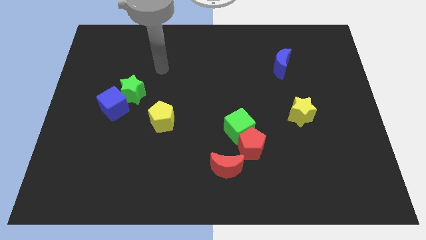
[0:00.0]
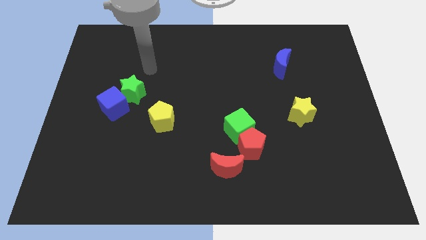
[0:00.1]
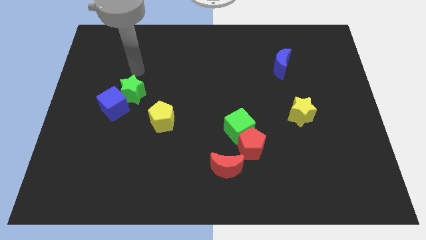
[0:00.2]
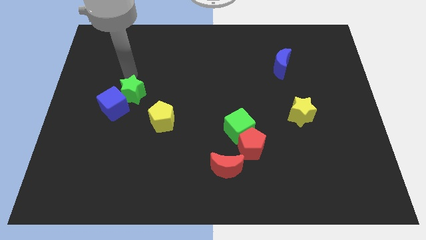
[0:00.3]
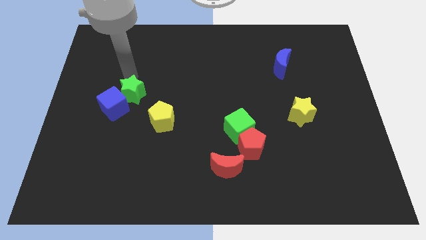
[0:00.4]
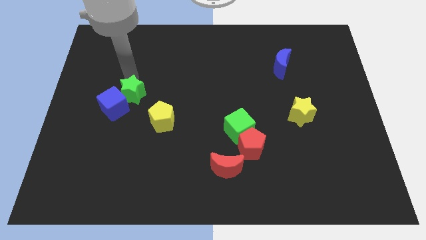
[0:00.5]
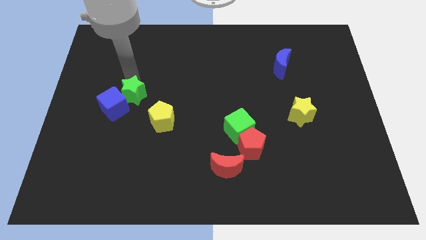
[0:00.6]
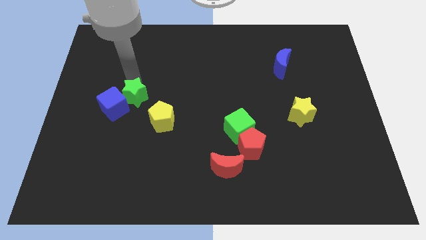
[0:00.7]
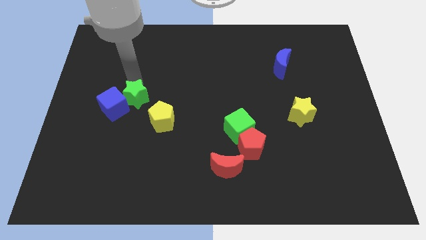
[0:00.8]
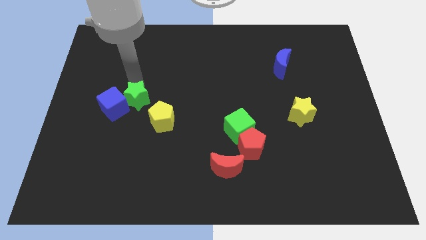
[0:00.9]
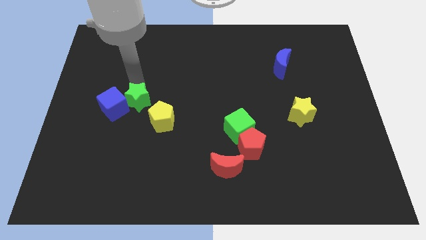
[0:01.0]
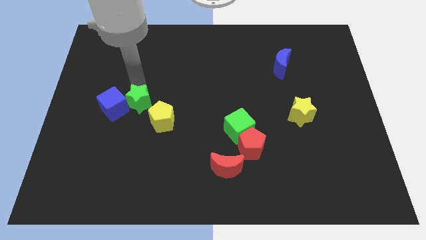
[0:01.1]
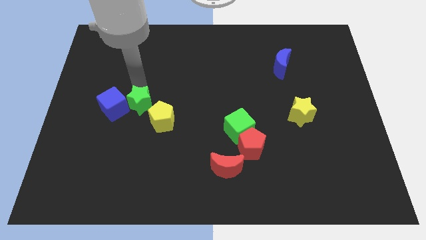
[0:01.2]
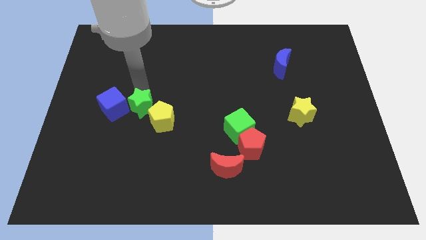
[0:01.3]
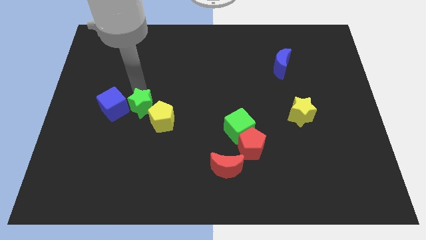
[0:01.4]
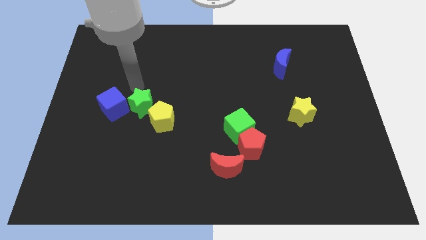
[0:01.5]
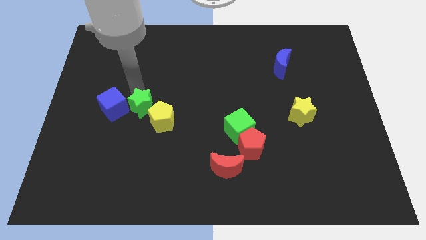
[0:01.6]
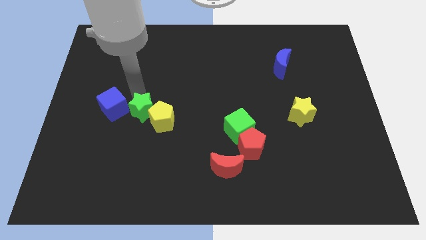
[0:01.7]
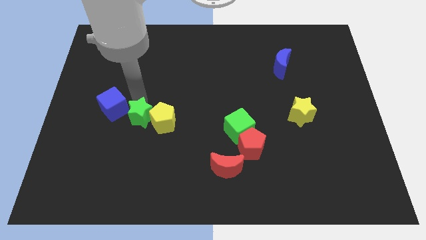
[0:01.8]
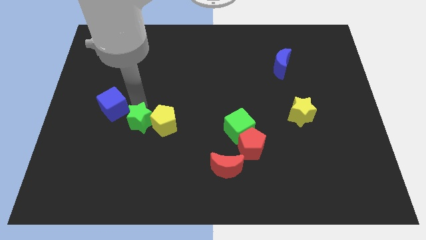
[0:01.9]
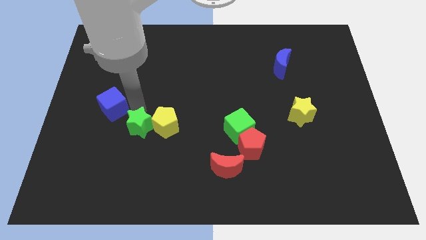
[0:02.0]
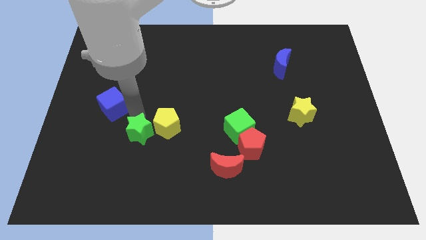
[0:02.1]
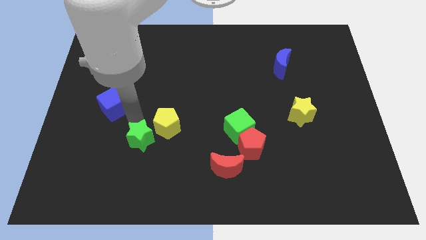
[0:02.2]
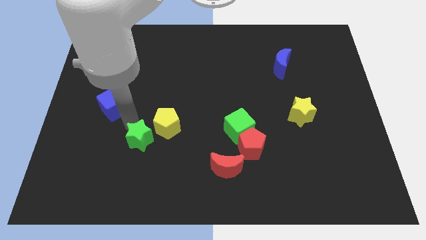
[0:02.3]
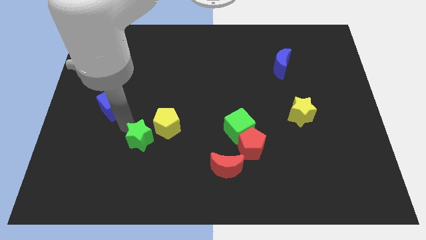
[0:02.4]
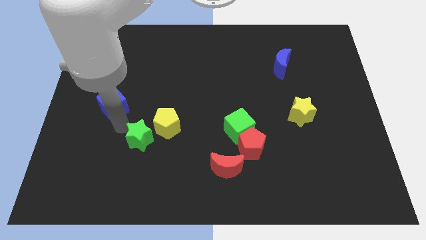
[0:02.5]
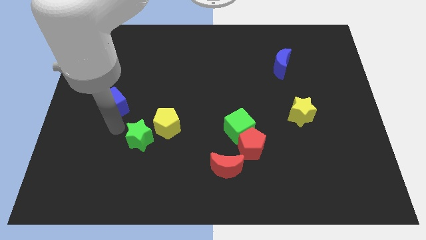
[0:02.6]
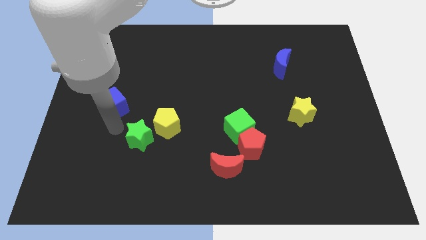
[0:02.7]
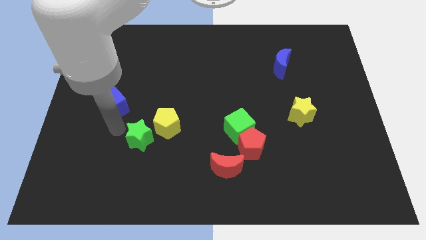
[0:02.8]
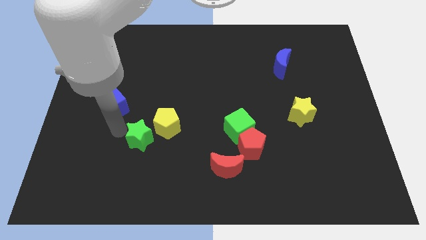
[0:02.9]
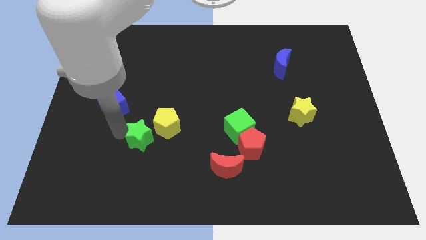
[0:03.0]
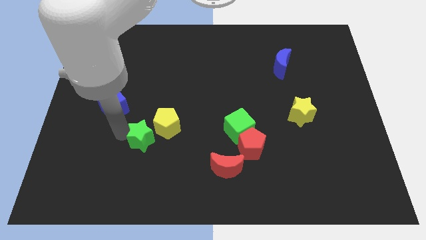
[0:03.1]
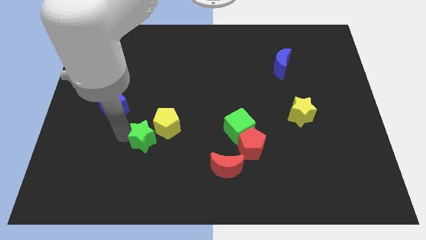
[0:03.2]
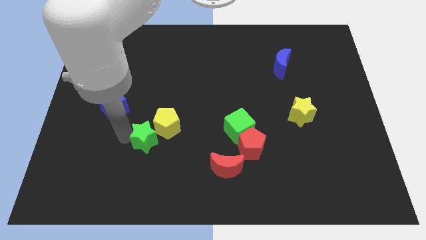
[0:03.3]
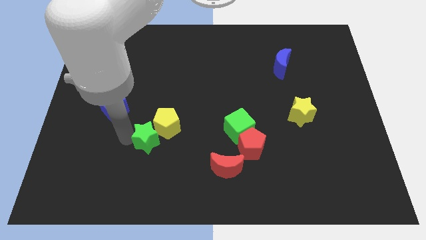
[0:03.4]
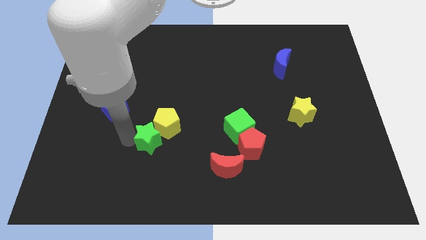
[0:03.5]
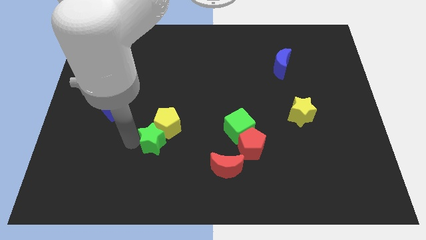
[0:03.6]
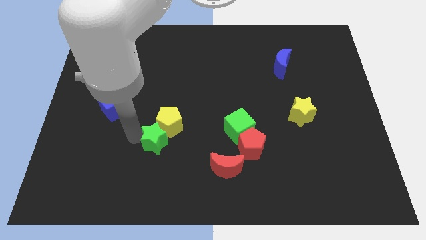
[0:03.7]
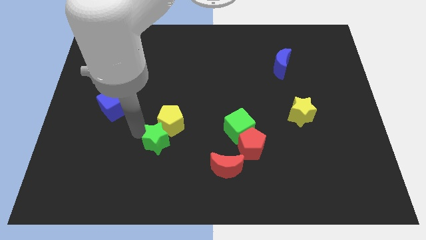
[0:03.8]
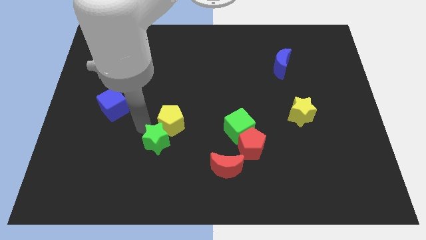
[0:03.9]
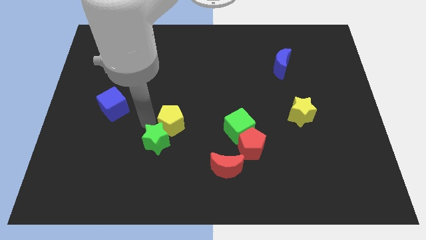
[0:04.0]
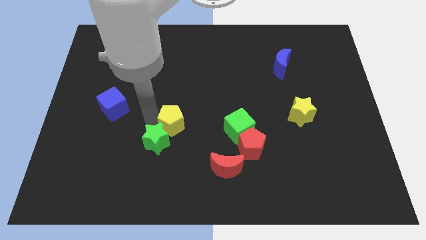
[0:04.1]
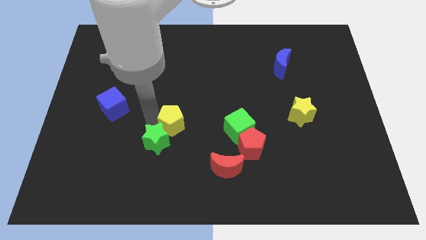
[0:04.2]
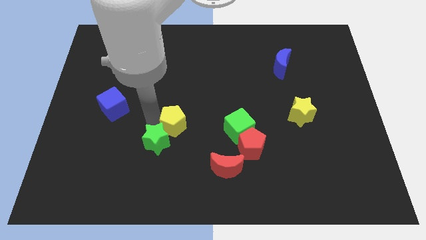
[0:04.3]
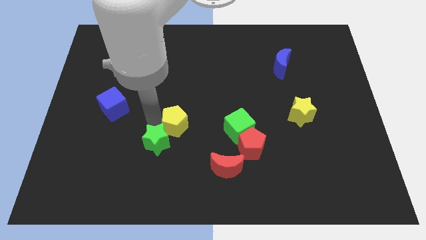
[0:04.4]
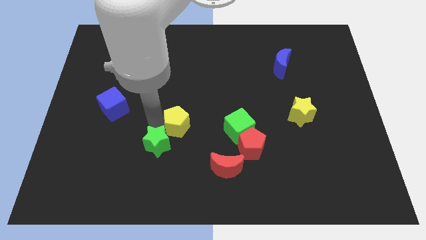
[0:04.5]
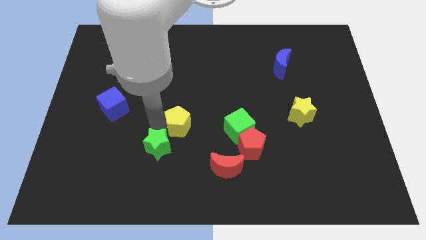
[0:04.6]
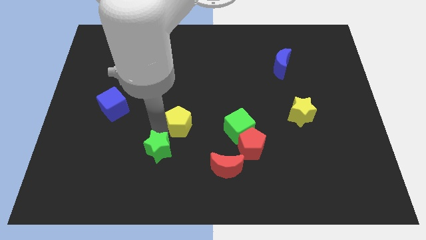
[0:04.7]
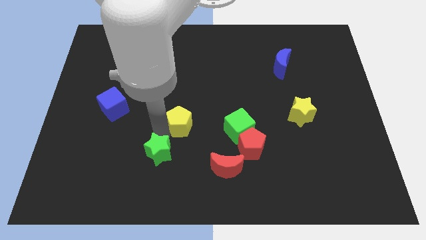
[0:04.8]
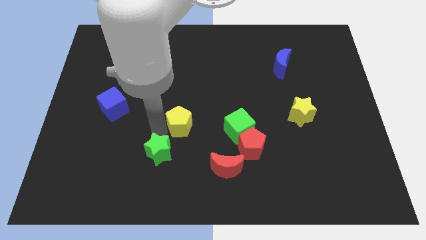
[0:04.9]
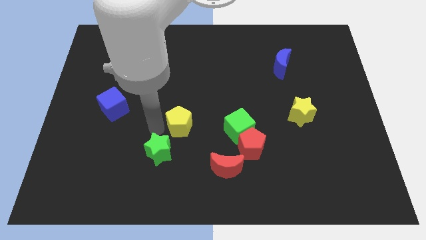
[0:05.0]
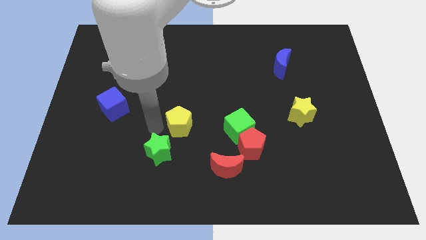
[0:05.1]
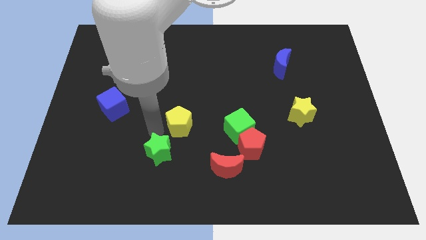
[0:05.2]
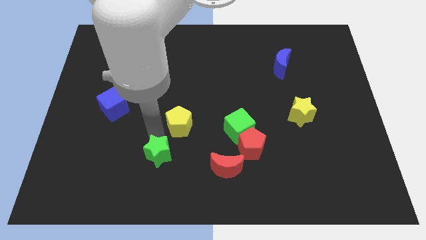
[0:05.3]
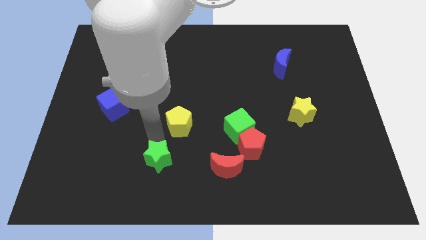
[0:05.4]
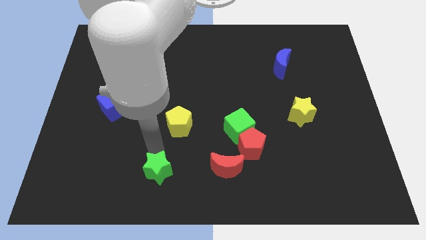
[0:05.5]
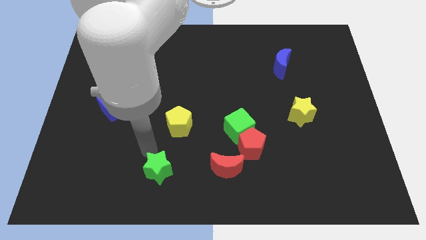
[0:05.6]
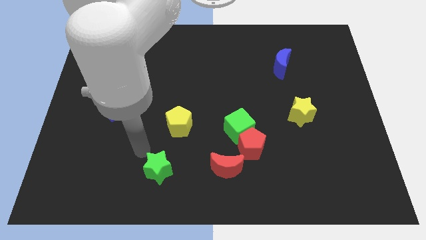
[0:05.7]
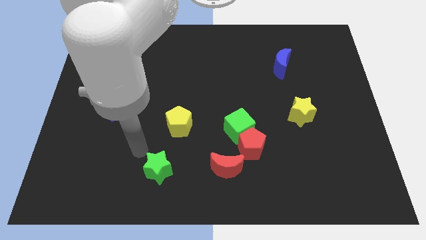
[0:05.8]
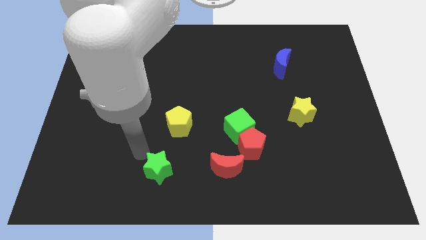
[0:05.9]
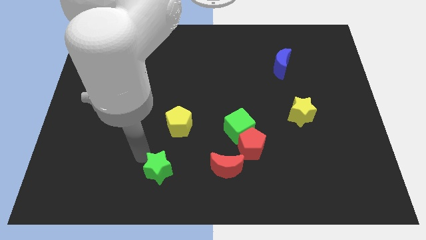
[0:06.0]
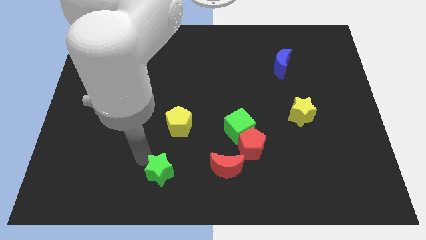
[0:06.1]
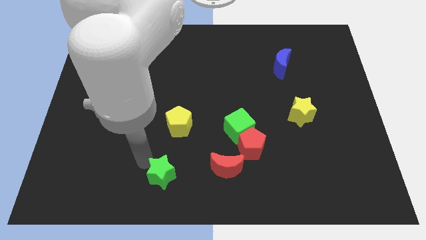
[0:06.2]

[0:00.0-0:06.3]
push the green star to the bottom side
